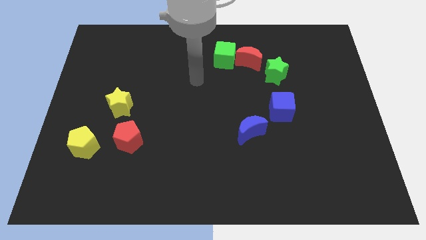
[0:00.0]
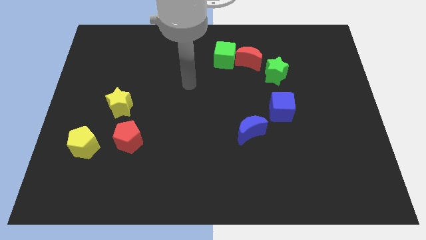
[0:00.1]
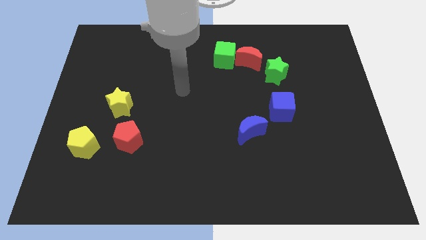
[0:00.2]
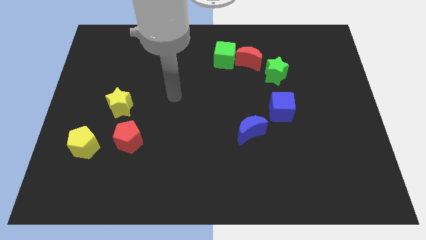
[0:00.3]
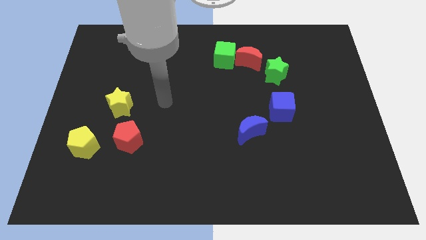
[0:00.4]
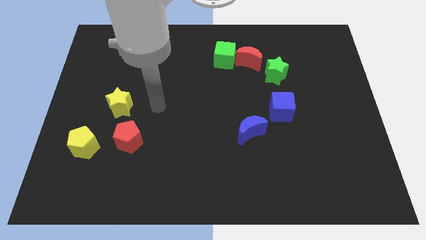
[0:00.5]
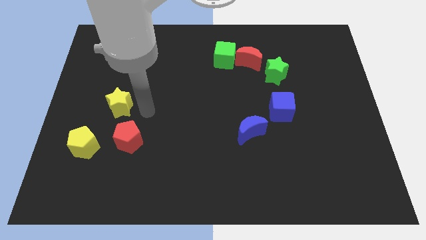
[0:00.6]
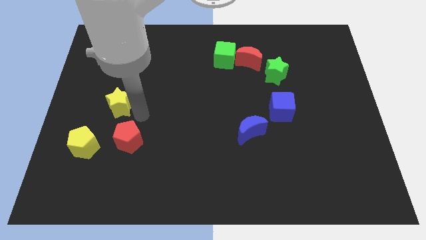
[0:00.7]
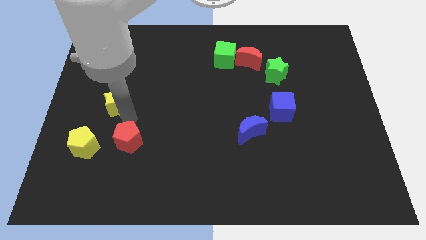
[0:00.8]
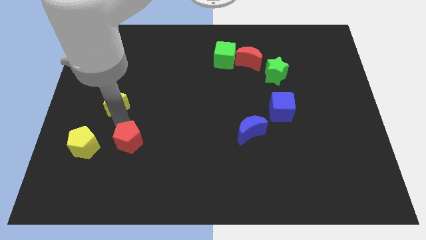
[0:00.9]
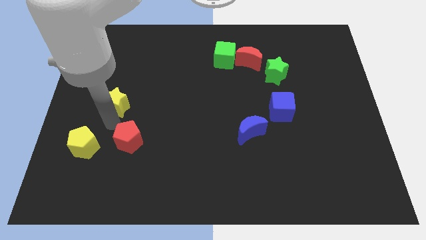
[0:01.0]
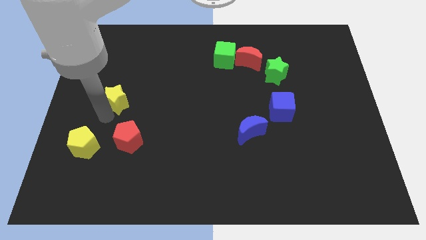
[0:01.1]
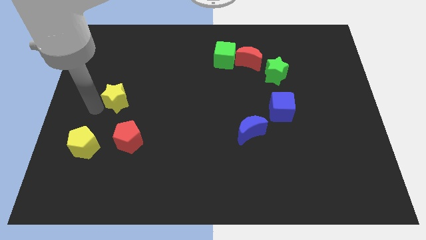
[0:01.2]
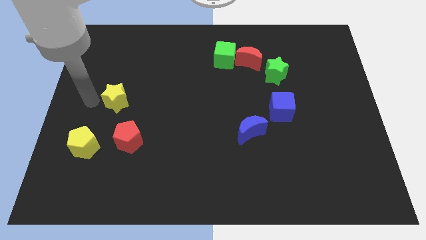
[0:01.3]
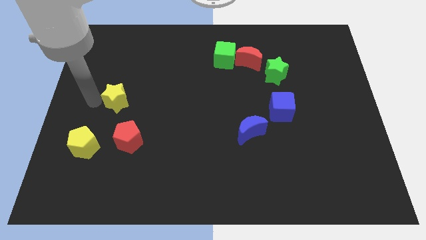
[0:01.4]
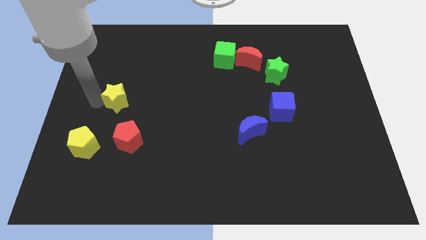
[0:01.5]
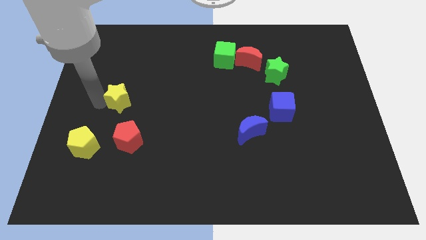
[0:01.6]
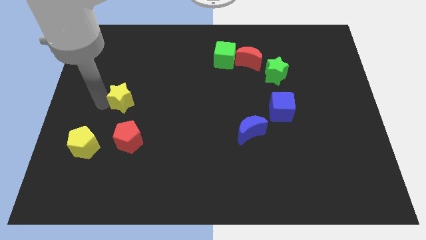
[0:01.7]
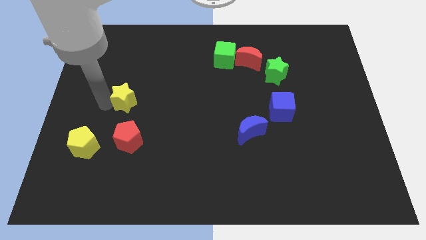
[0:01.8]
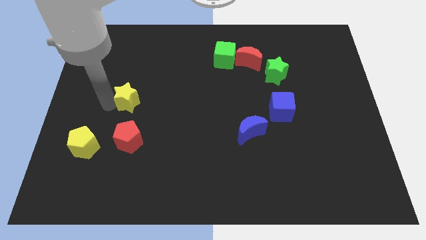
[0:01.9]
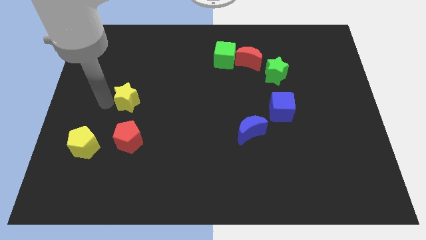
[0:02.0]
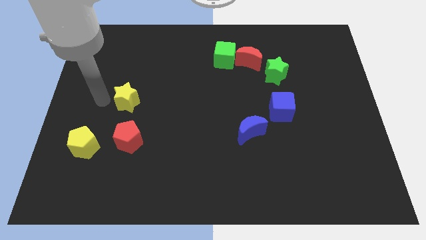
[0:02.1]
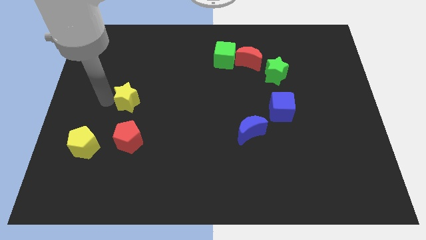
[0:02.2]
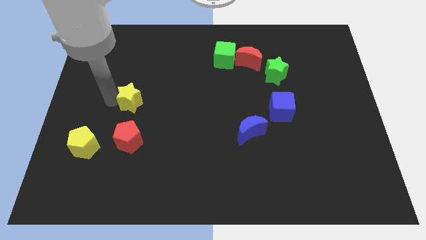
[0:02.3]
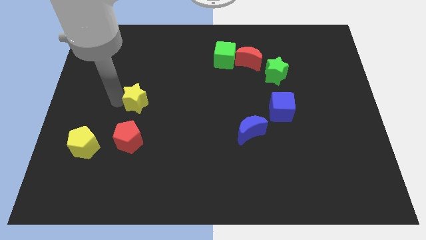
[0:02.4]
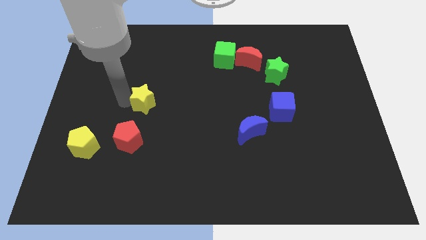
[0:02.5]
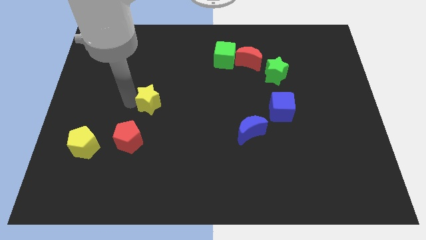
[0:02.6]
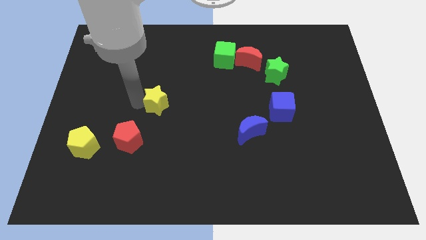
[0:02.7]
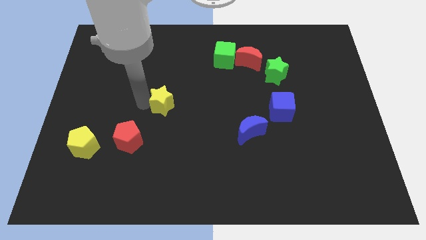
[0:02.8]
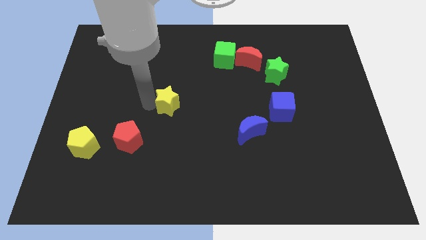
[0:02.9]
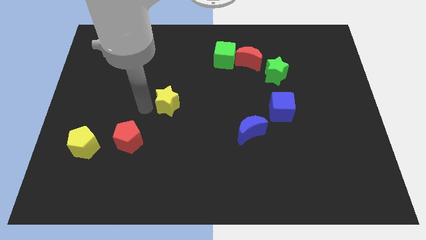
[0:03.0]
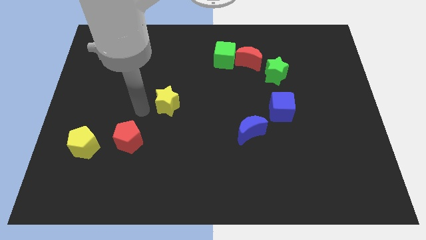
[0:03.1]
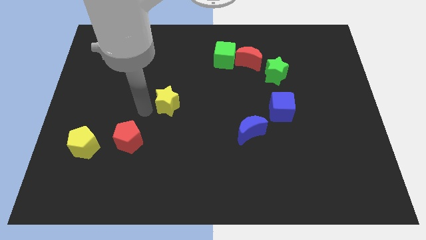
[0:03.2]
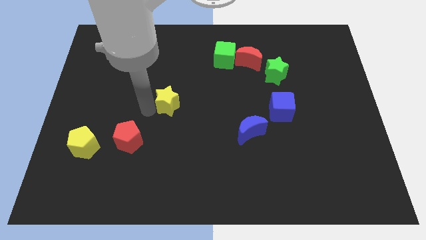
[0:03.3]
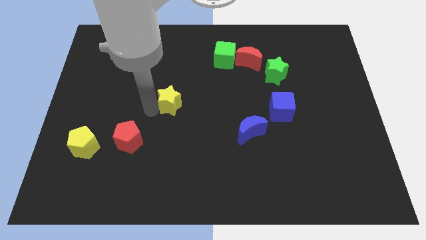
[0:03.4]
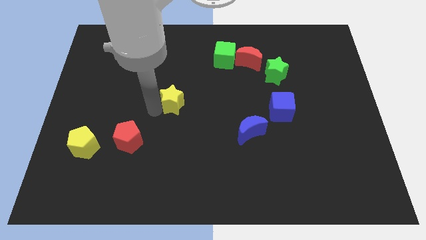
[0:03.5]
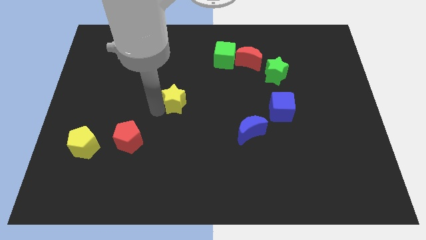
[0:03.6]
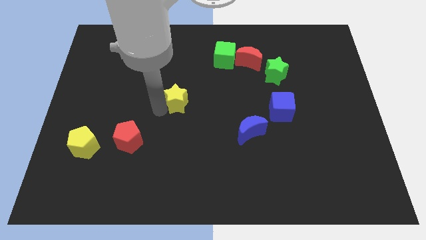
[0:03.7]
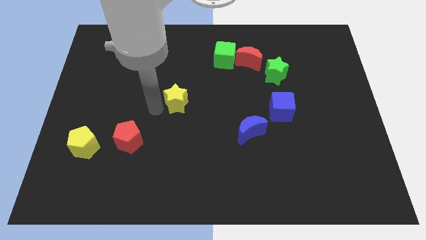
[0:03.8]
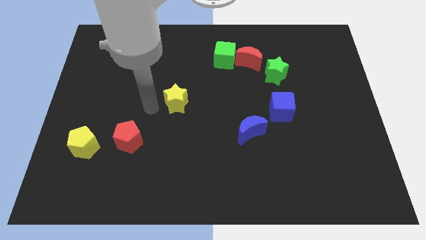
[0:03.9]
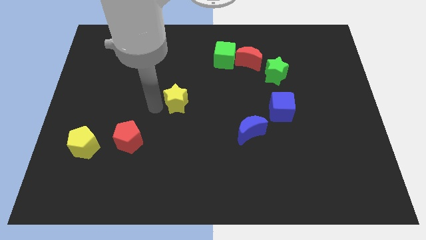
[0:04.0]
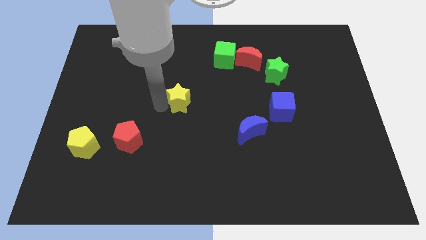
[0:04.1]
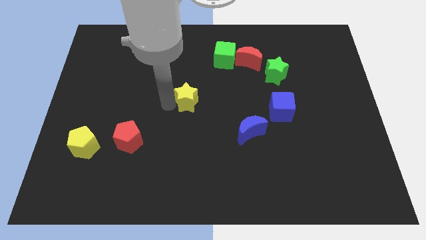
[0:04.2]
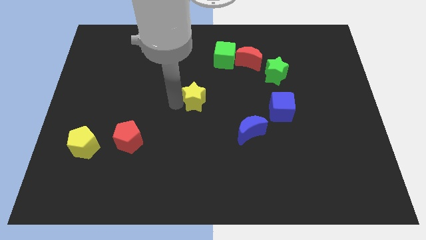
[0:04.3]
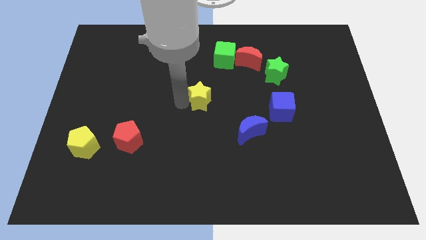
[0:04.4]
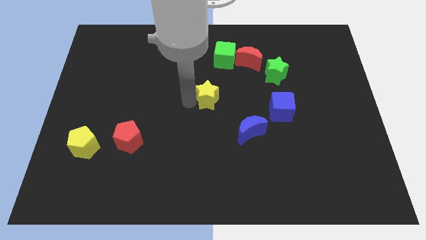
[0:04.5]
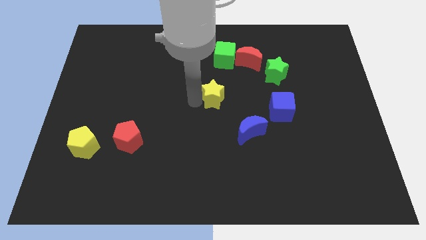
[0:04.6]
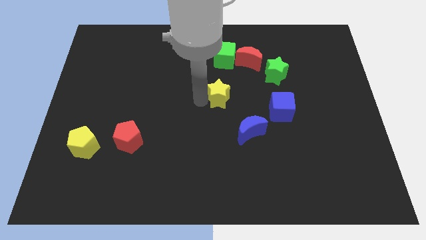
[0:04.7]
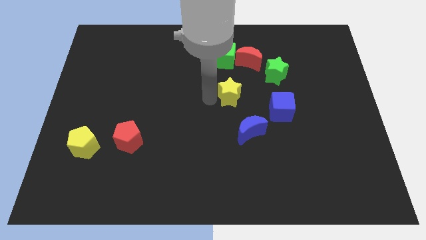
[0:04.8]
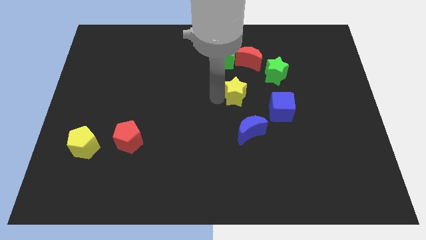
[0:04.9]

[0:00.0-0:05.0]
move the yellow star to the bottom side of the red moon

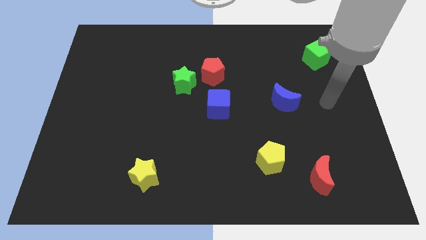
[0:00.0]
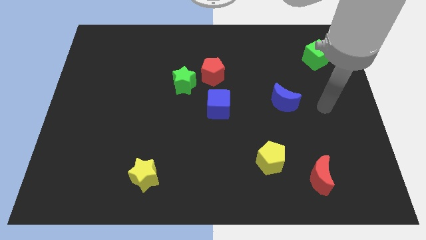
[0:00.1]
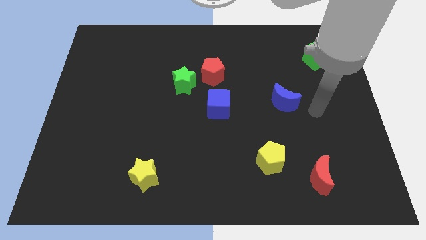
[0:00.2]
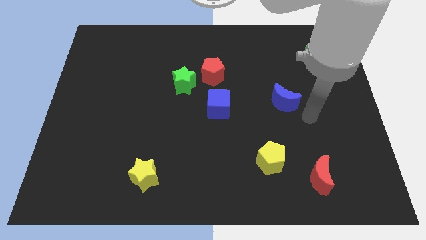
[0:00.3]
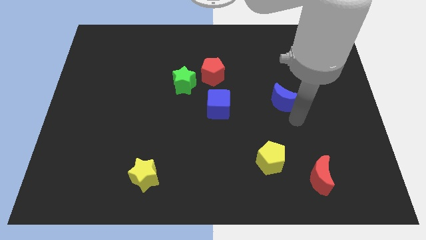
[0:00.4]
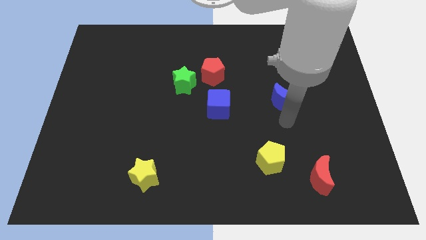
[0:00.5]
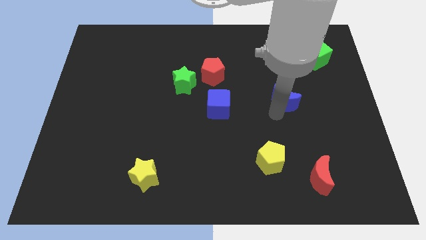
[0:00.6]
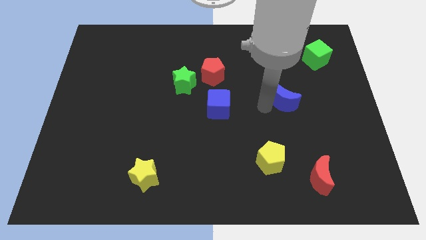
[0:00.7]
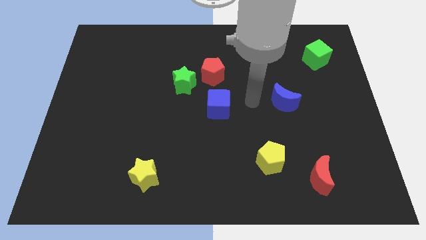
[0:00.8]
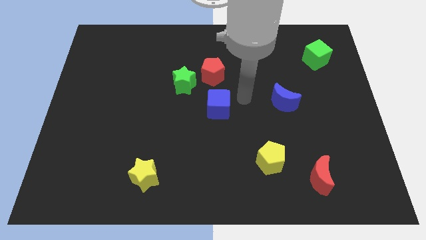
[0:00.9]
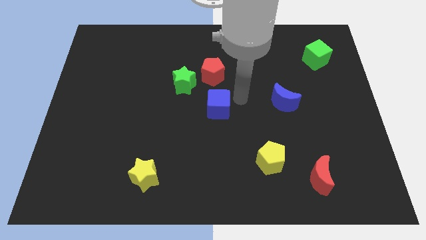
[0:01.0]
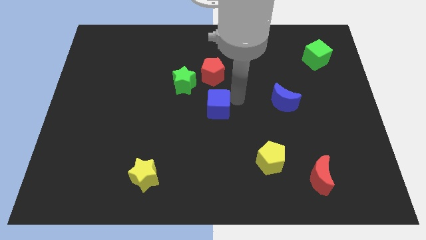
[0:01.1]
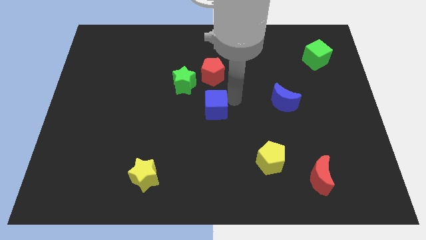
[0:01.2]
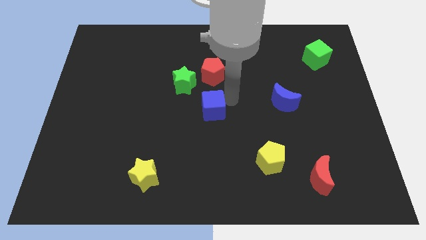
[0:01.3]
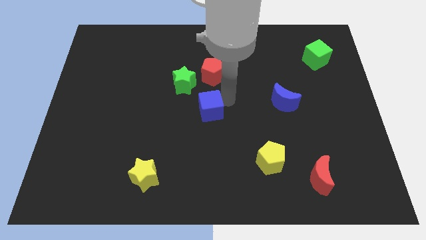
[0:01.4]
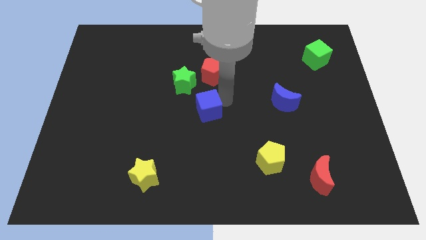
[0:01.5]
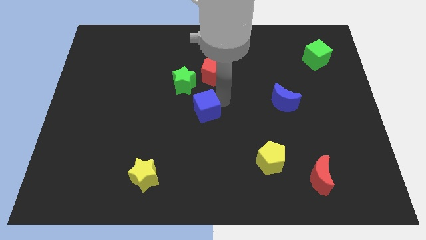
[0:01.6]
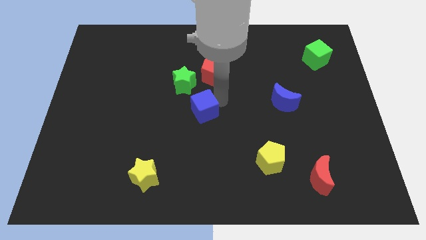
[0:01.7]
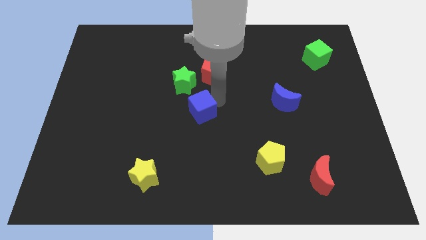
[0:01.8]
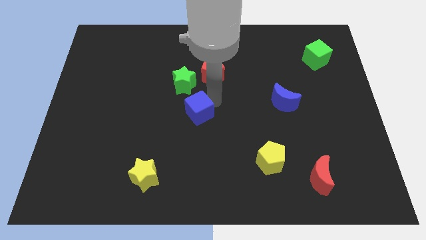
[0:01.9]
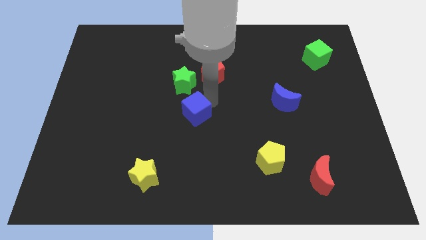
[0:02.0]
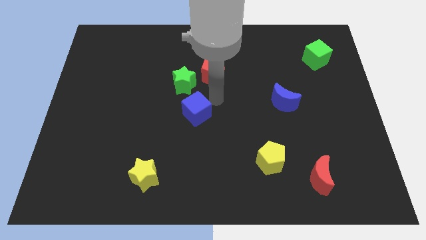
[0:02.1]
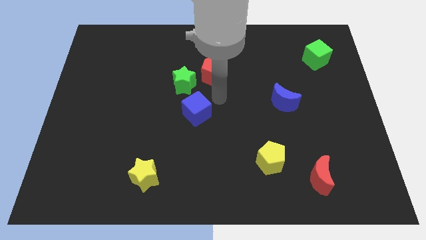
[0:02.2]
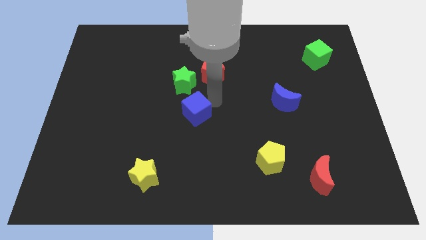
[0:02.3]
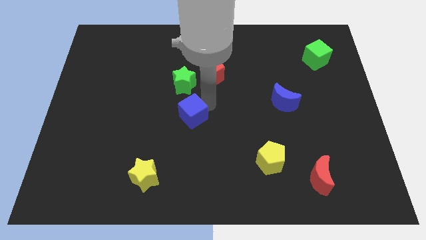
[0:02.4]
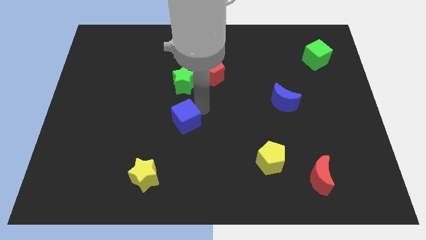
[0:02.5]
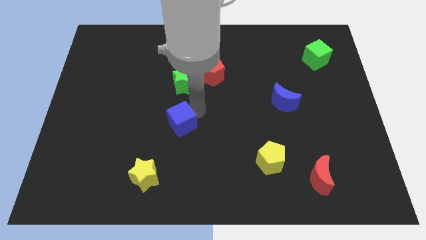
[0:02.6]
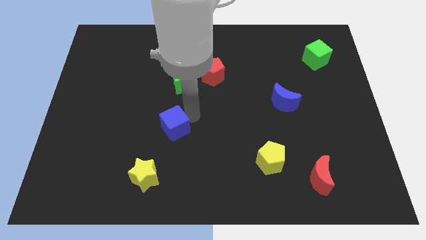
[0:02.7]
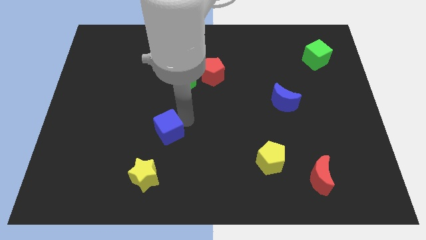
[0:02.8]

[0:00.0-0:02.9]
slide the blue cube to the top of the yellow star
